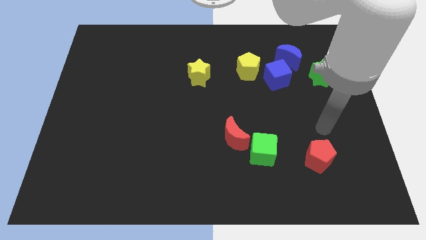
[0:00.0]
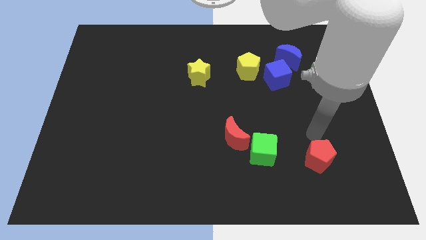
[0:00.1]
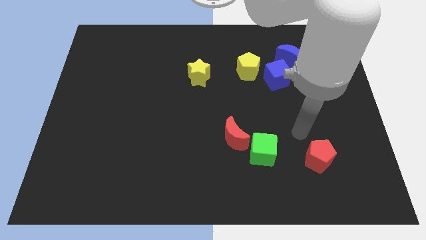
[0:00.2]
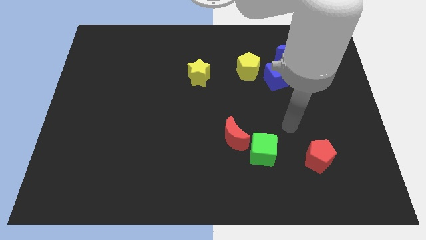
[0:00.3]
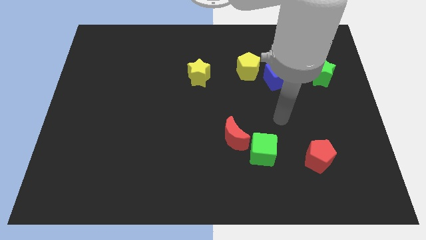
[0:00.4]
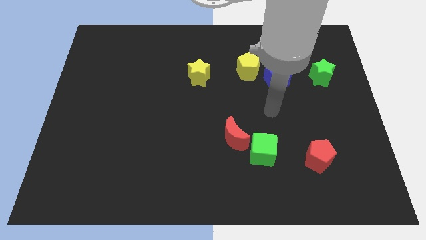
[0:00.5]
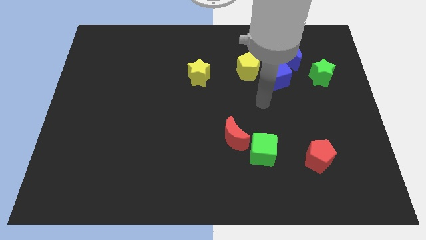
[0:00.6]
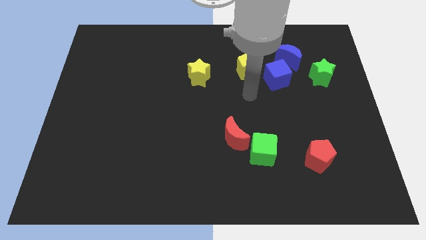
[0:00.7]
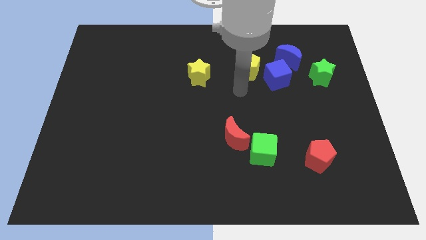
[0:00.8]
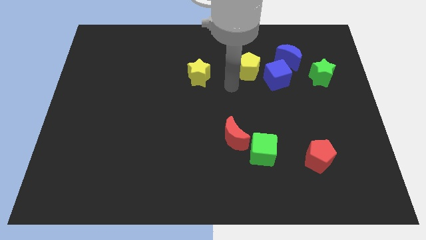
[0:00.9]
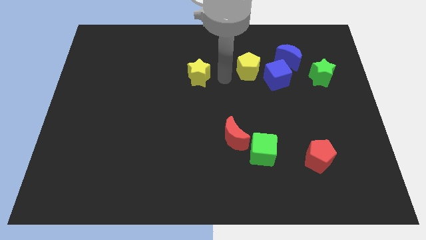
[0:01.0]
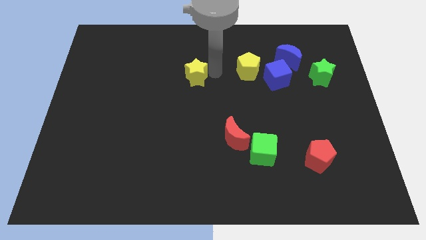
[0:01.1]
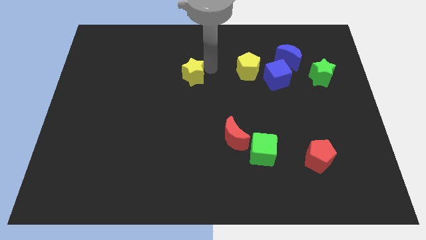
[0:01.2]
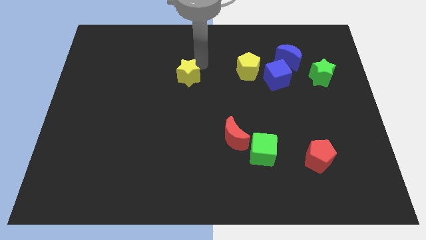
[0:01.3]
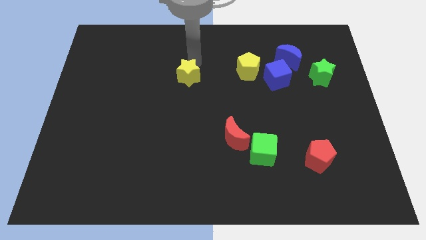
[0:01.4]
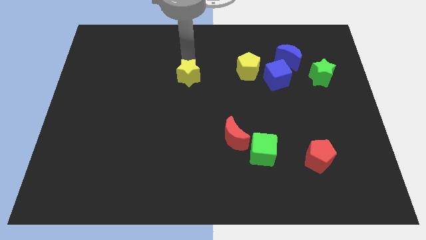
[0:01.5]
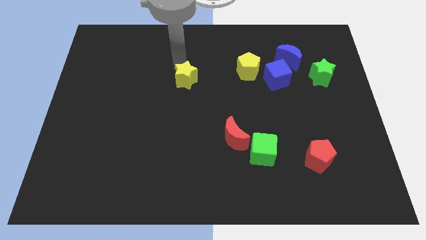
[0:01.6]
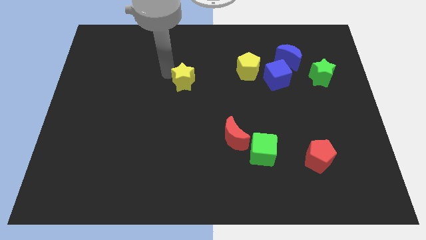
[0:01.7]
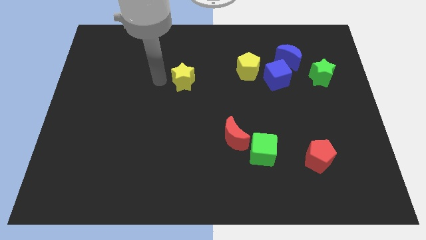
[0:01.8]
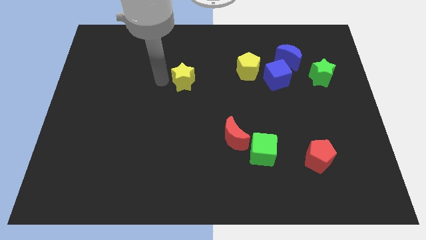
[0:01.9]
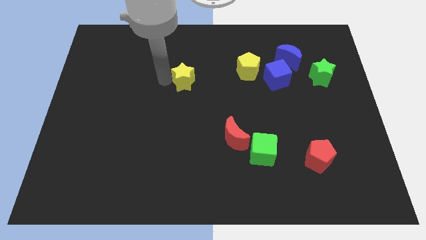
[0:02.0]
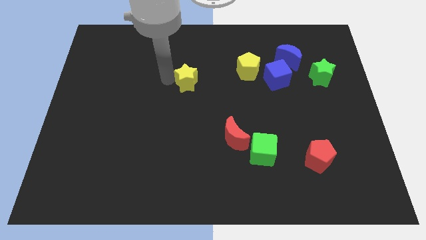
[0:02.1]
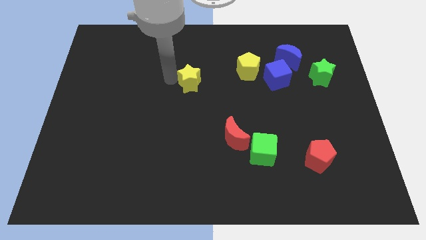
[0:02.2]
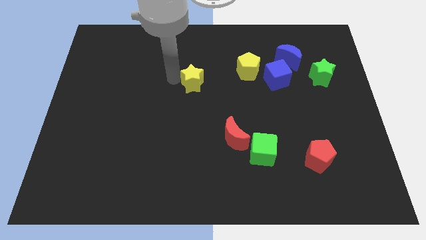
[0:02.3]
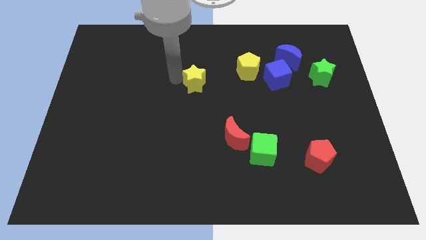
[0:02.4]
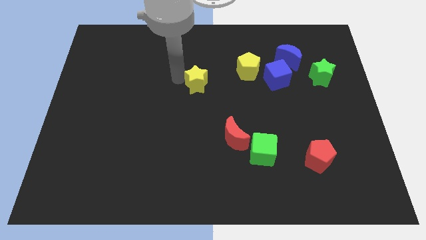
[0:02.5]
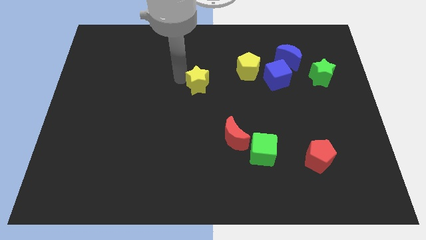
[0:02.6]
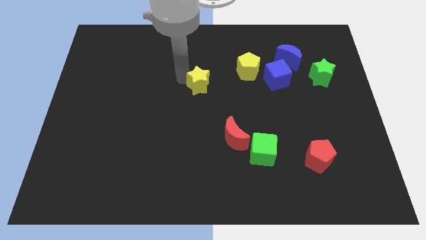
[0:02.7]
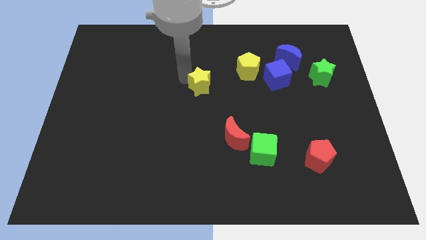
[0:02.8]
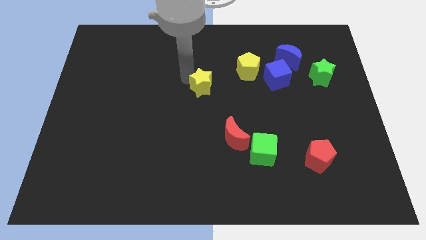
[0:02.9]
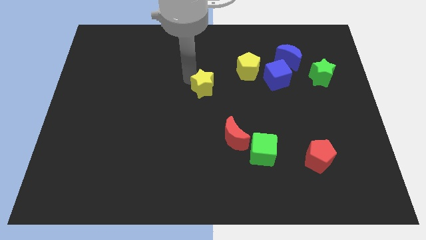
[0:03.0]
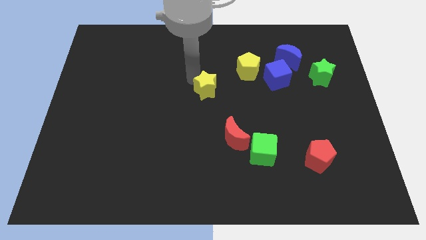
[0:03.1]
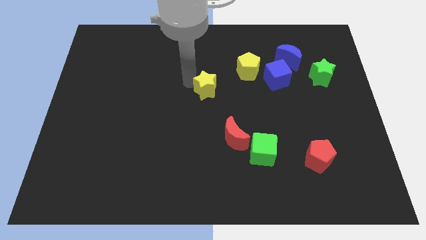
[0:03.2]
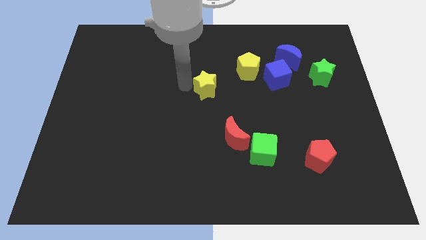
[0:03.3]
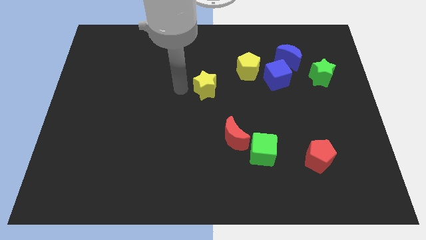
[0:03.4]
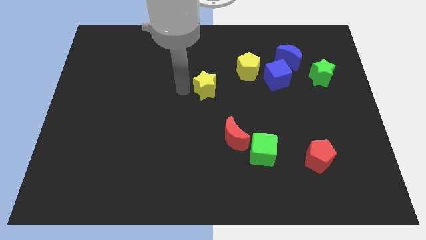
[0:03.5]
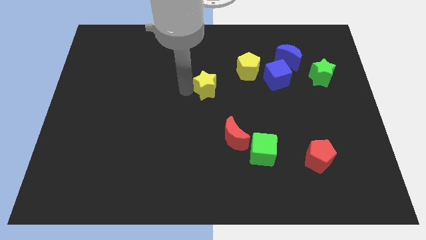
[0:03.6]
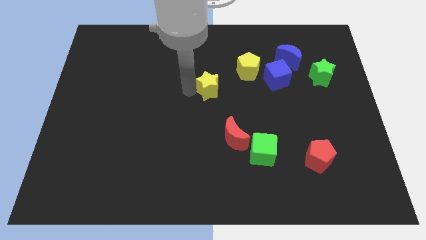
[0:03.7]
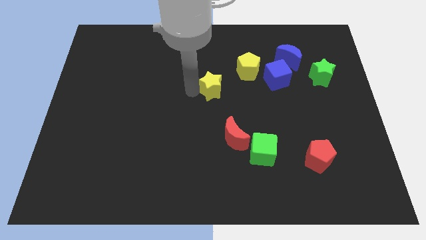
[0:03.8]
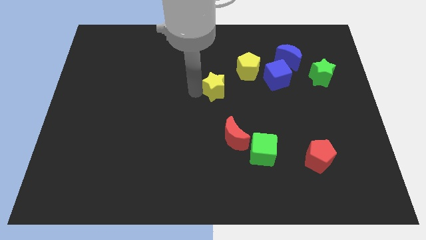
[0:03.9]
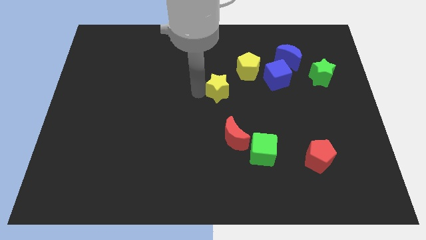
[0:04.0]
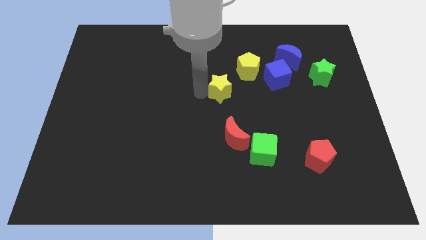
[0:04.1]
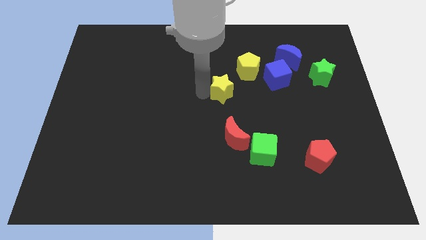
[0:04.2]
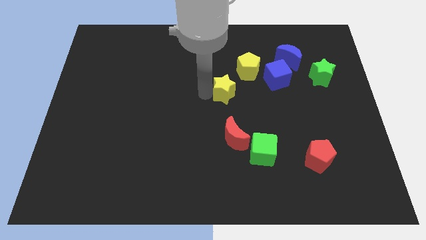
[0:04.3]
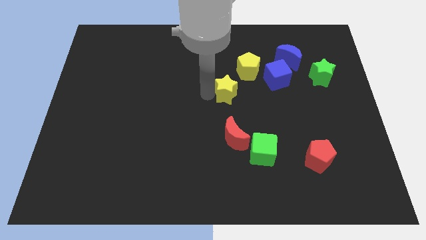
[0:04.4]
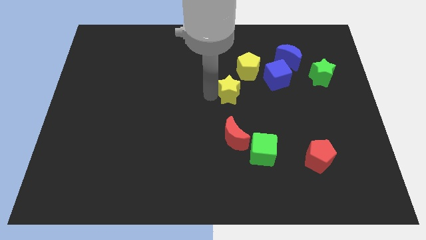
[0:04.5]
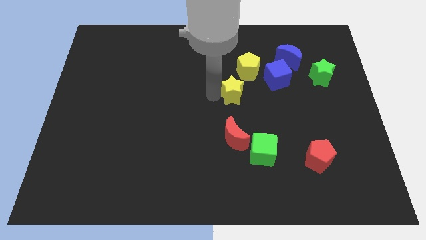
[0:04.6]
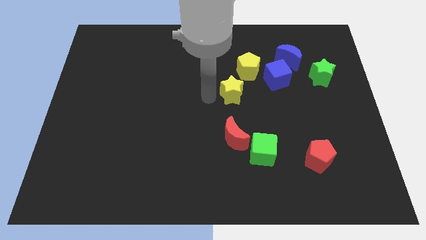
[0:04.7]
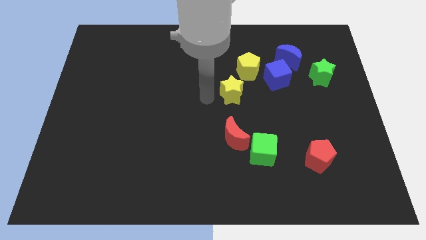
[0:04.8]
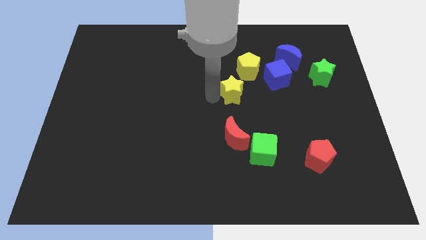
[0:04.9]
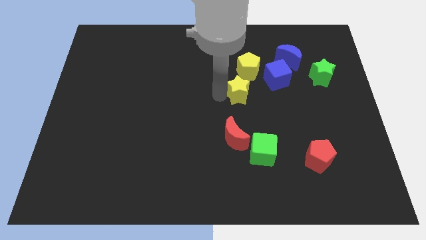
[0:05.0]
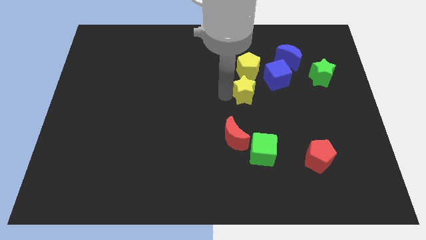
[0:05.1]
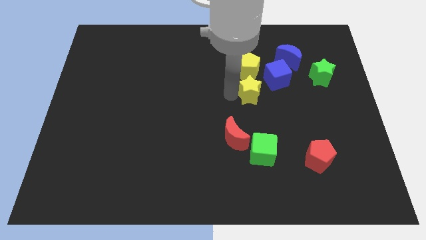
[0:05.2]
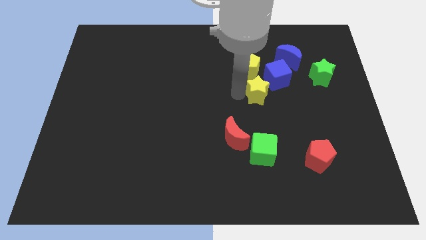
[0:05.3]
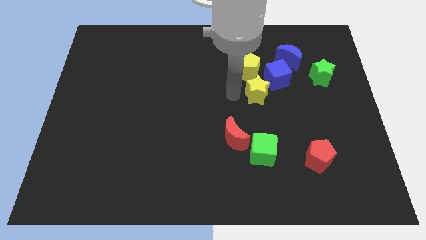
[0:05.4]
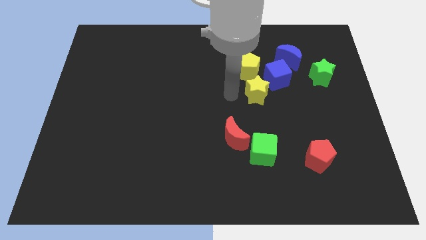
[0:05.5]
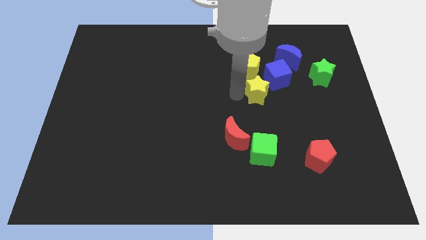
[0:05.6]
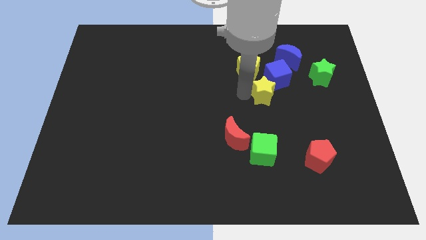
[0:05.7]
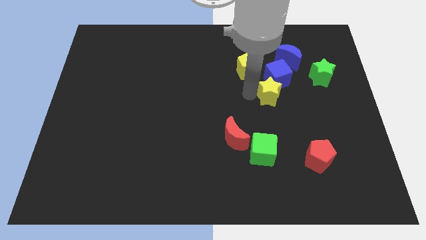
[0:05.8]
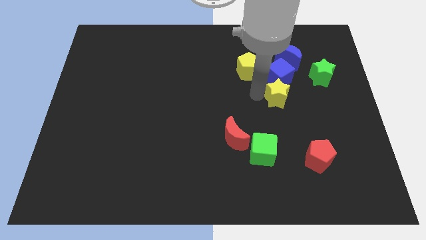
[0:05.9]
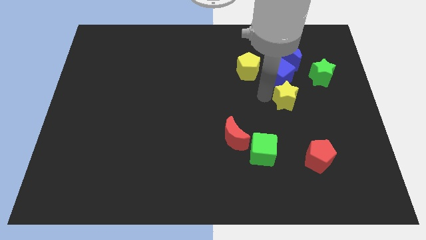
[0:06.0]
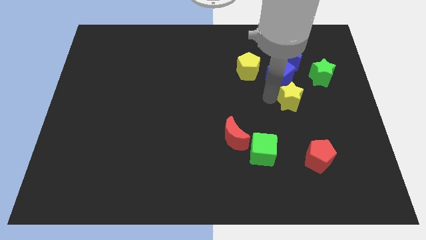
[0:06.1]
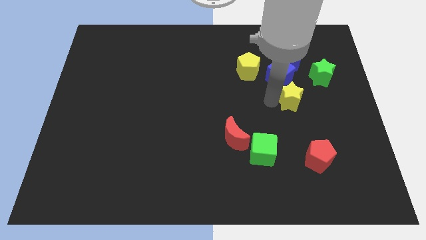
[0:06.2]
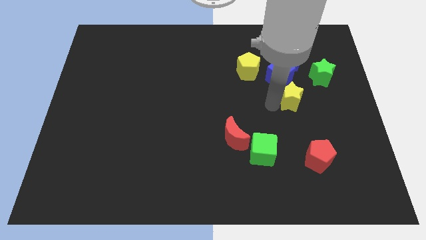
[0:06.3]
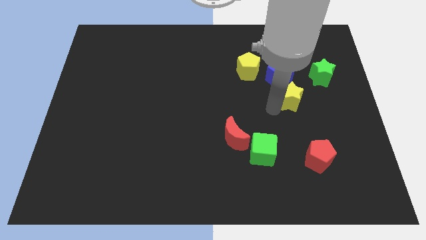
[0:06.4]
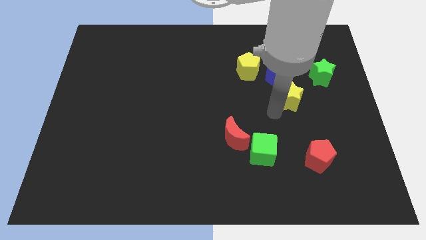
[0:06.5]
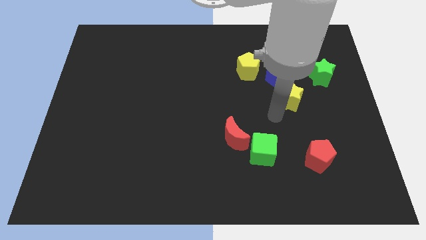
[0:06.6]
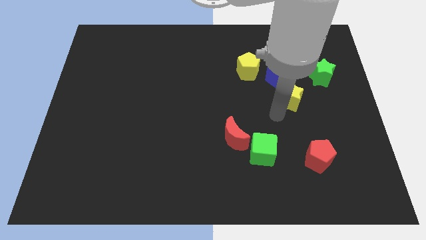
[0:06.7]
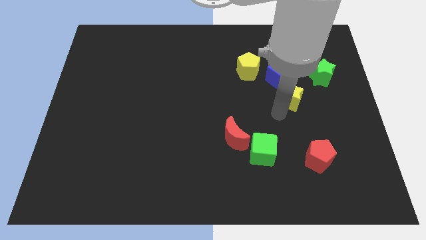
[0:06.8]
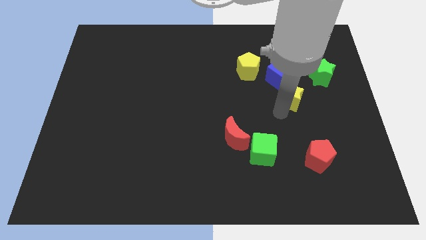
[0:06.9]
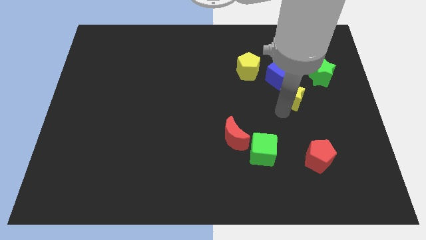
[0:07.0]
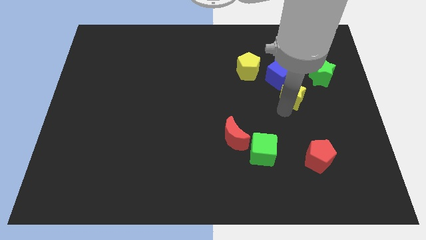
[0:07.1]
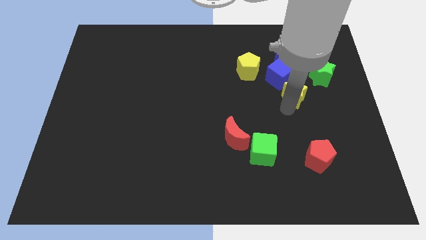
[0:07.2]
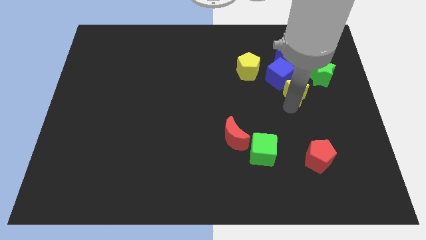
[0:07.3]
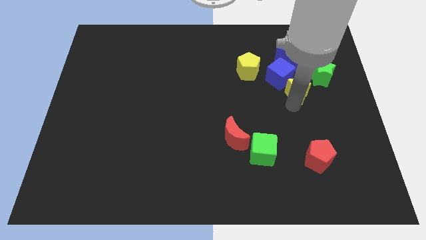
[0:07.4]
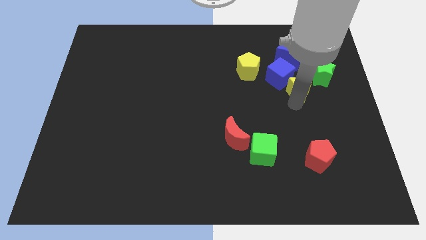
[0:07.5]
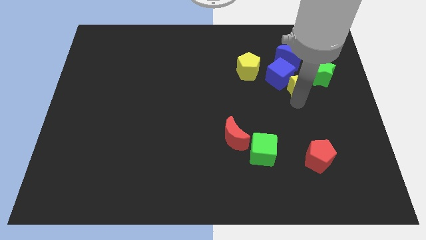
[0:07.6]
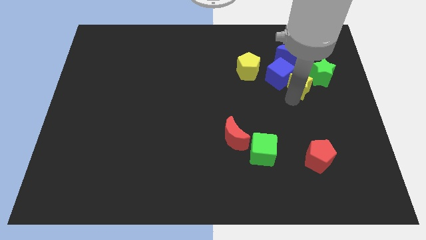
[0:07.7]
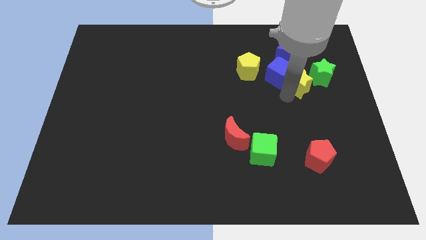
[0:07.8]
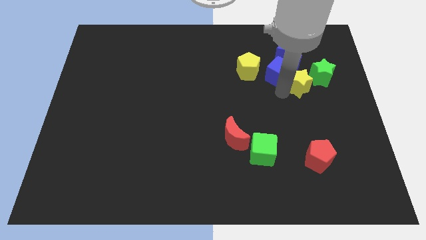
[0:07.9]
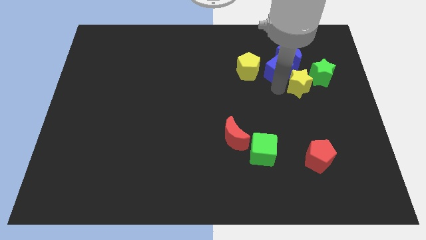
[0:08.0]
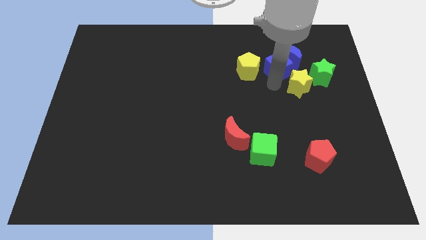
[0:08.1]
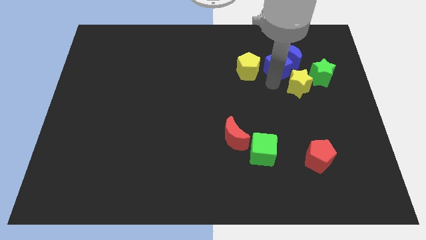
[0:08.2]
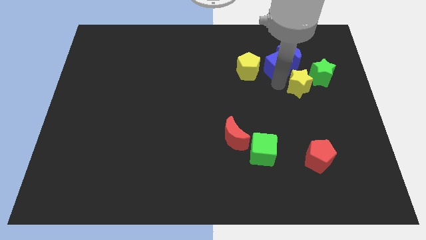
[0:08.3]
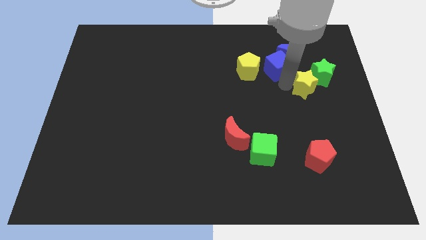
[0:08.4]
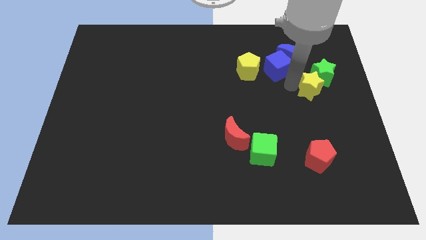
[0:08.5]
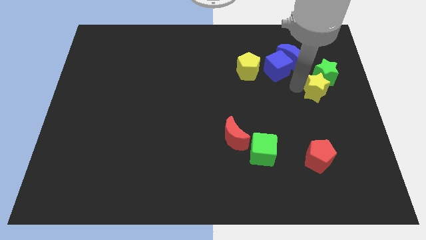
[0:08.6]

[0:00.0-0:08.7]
slide the yellow star to the center right
